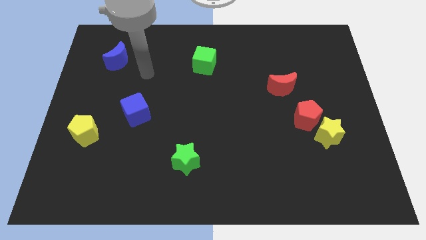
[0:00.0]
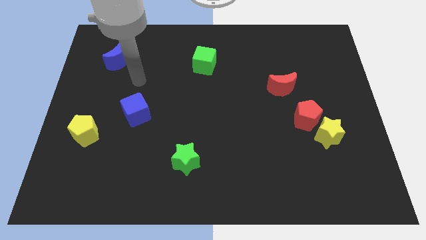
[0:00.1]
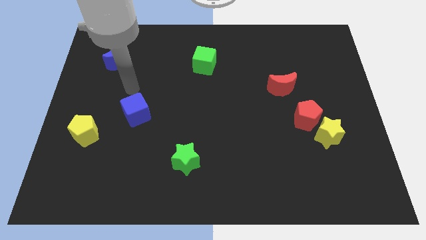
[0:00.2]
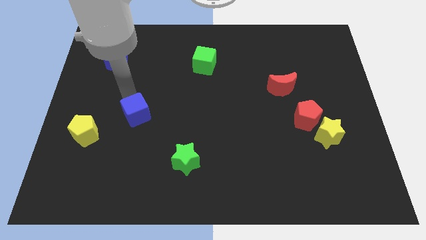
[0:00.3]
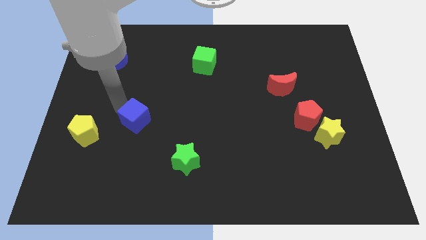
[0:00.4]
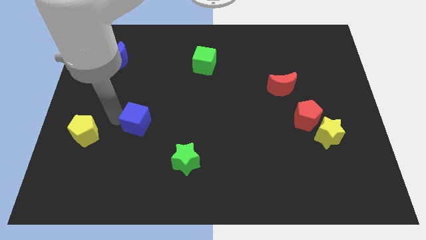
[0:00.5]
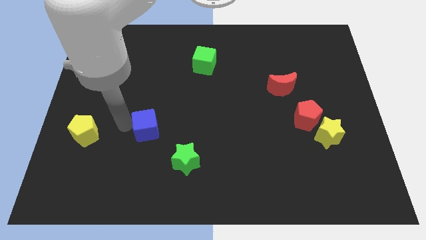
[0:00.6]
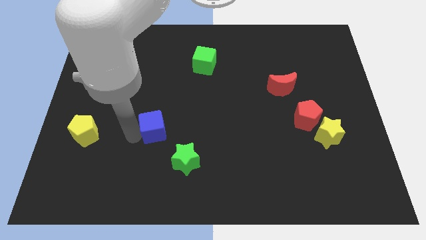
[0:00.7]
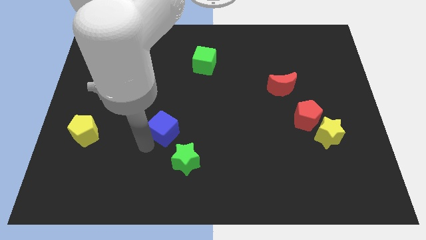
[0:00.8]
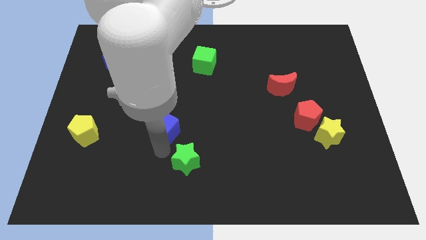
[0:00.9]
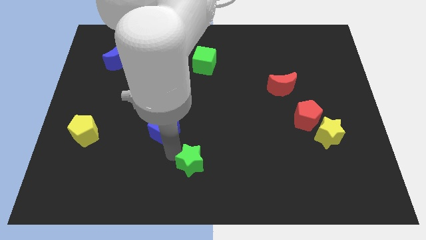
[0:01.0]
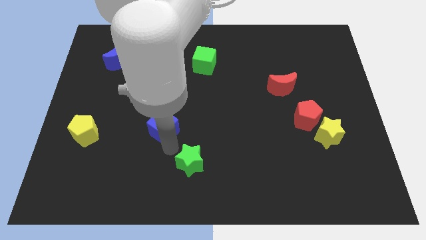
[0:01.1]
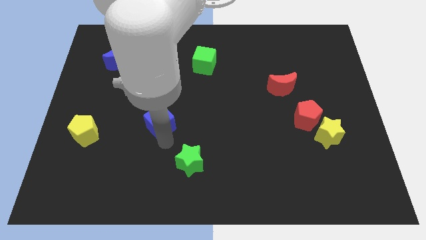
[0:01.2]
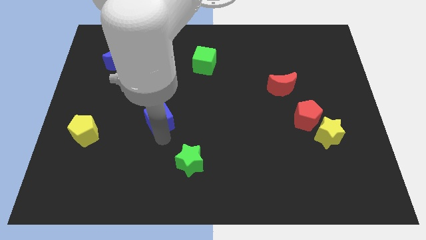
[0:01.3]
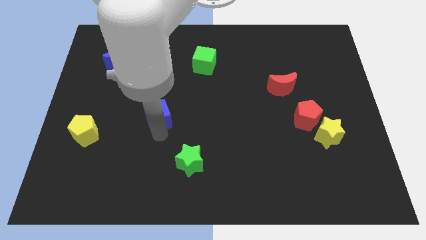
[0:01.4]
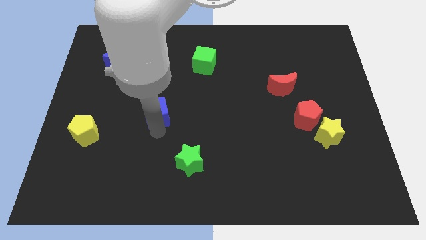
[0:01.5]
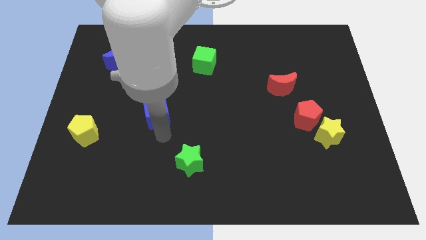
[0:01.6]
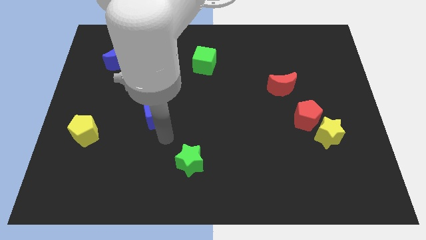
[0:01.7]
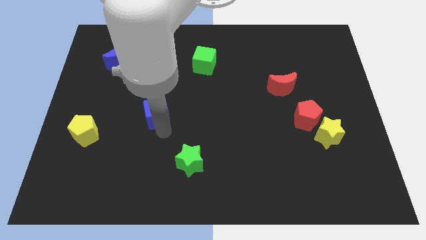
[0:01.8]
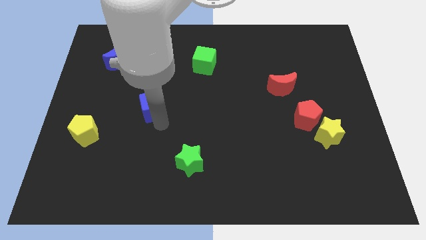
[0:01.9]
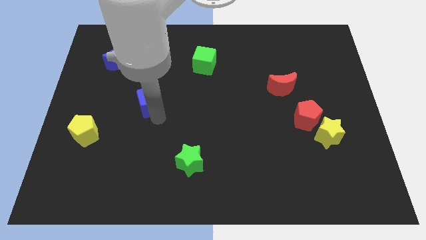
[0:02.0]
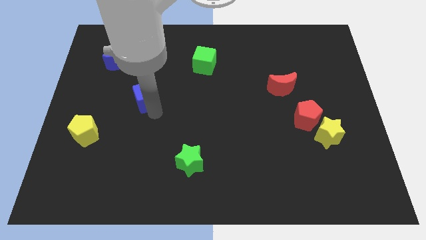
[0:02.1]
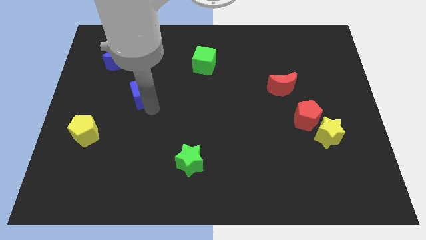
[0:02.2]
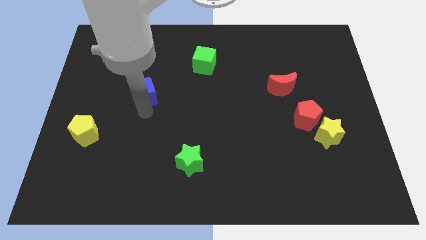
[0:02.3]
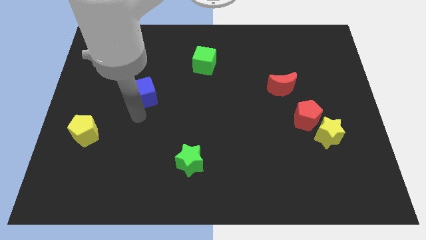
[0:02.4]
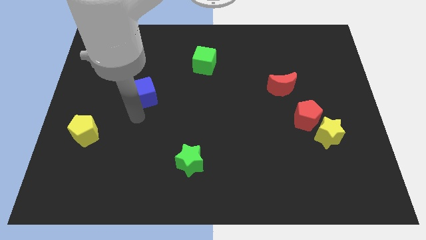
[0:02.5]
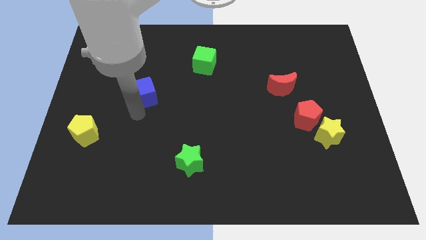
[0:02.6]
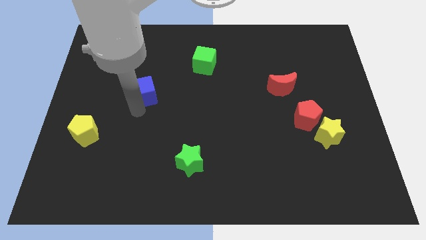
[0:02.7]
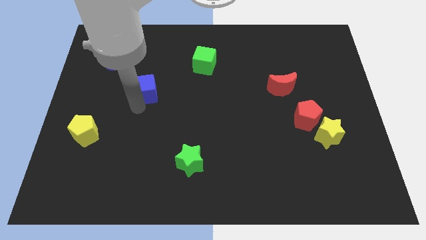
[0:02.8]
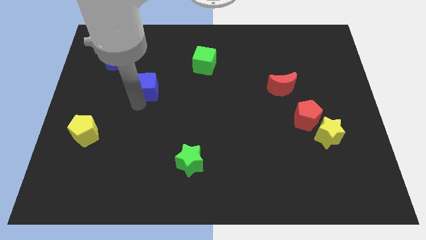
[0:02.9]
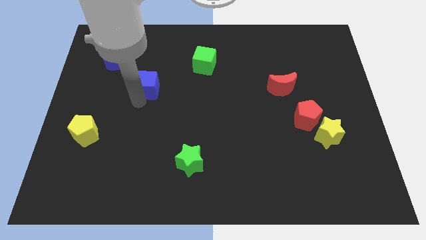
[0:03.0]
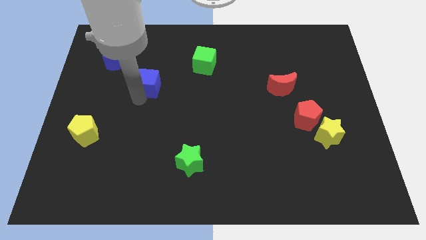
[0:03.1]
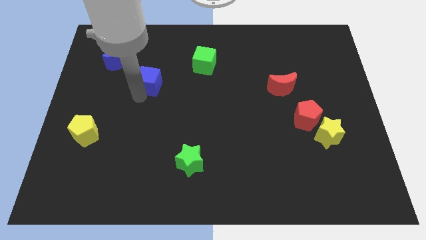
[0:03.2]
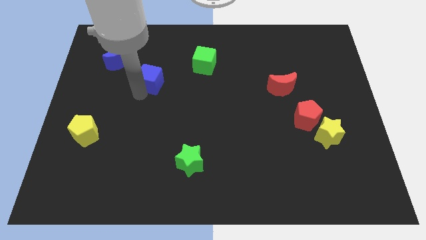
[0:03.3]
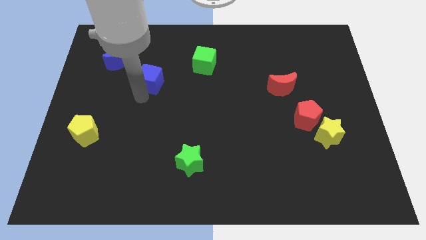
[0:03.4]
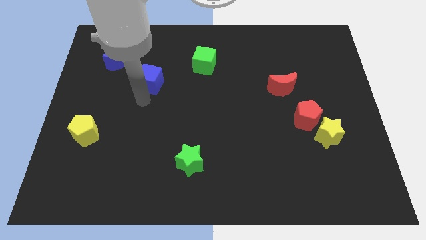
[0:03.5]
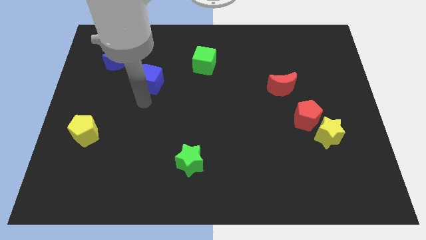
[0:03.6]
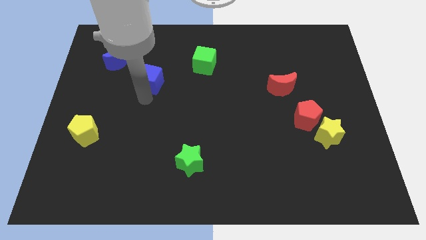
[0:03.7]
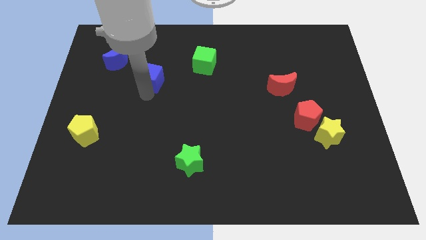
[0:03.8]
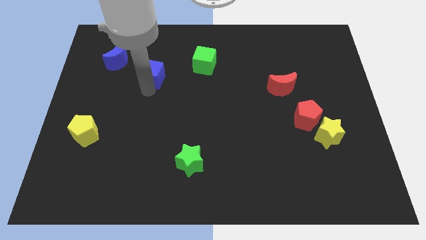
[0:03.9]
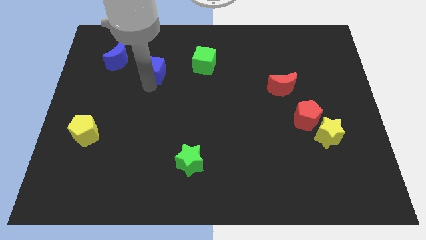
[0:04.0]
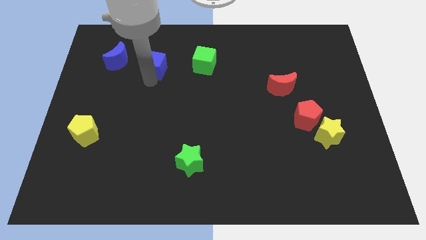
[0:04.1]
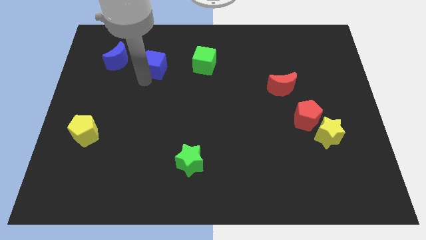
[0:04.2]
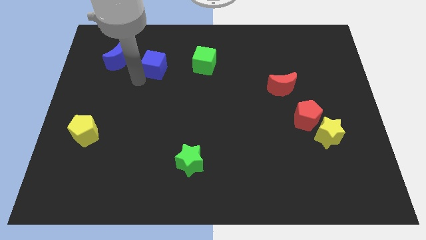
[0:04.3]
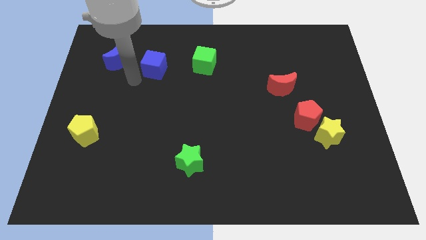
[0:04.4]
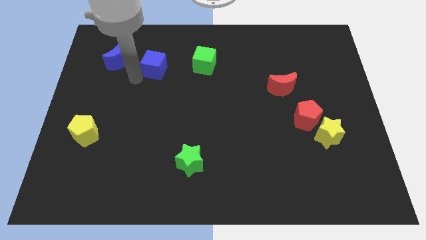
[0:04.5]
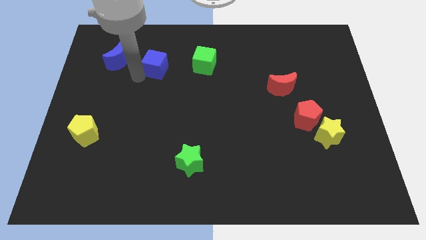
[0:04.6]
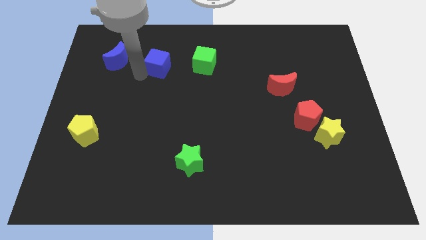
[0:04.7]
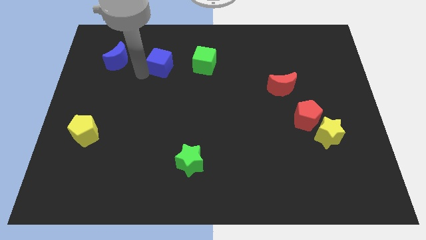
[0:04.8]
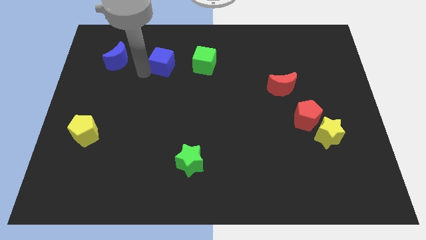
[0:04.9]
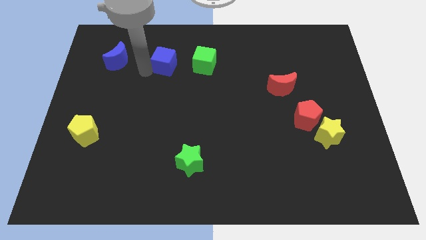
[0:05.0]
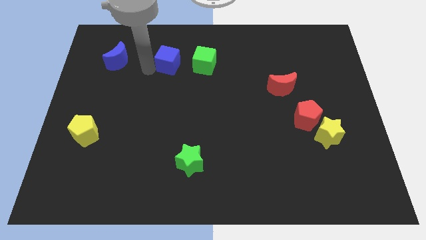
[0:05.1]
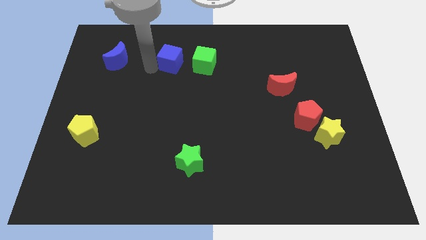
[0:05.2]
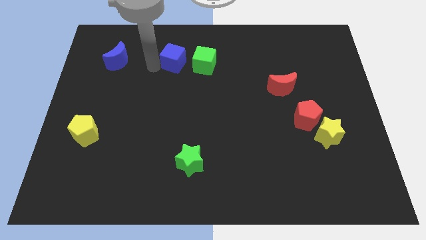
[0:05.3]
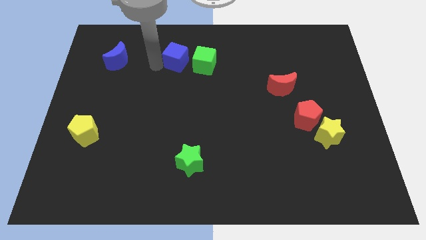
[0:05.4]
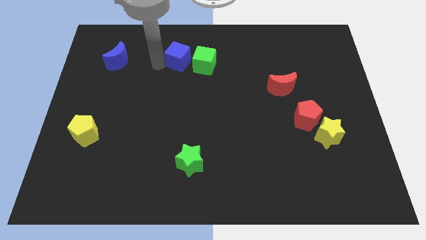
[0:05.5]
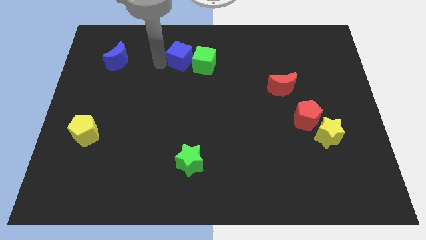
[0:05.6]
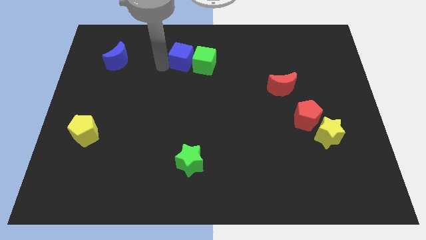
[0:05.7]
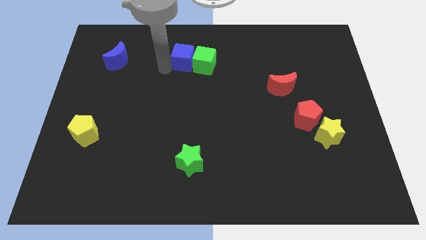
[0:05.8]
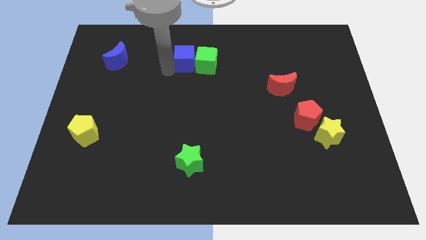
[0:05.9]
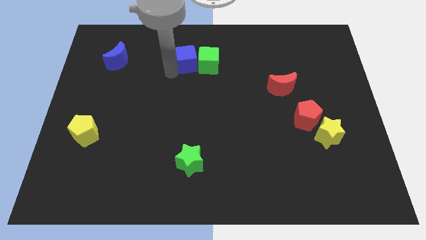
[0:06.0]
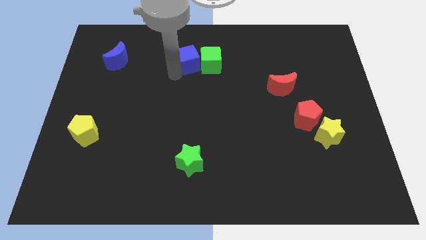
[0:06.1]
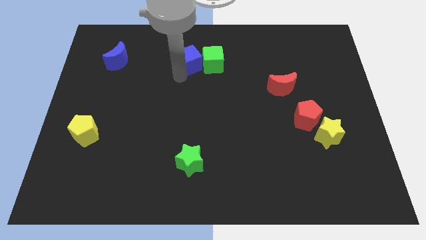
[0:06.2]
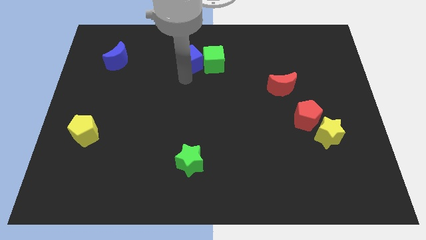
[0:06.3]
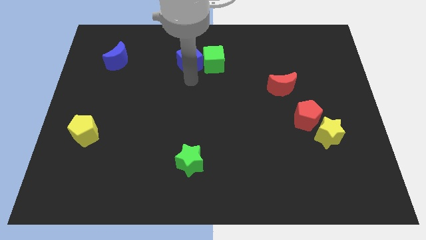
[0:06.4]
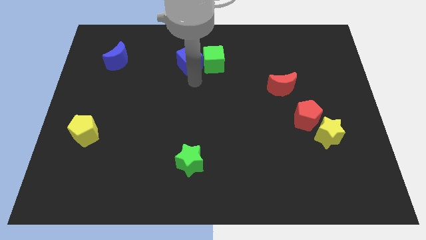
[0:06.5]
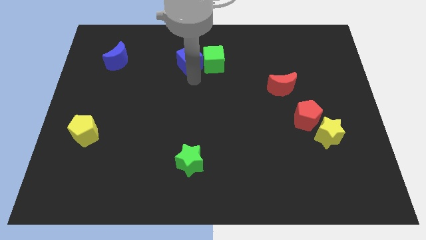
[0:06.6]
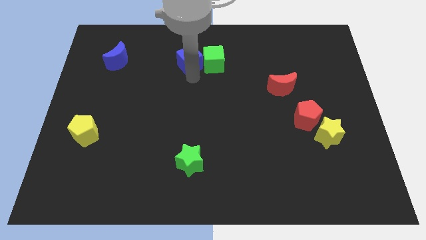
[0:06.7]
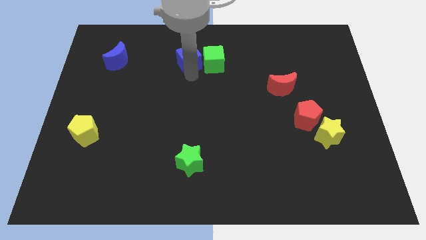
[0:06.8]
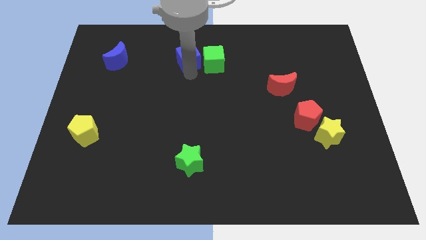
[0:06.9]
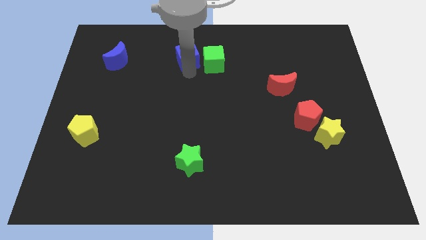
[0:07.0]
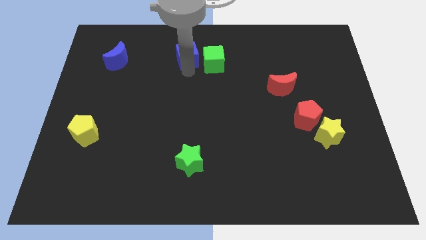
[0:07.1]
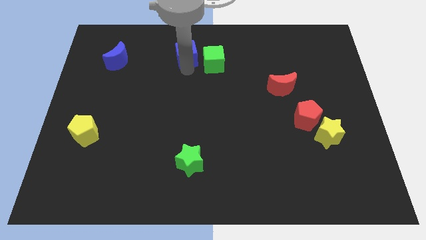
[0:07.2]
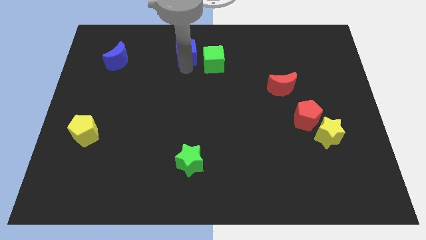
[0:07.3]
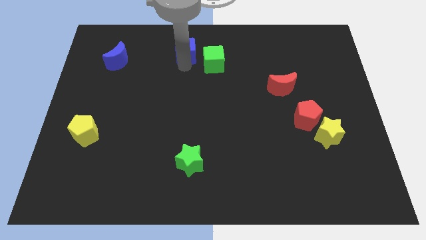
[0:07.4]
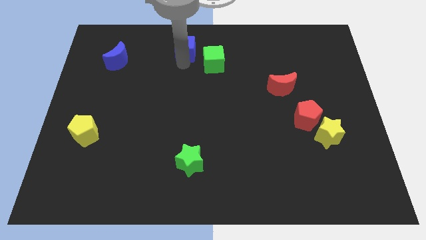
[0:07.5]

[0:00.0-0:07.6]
slide the blue cube to the top

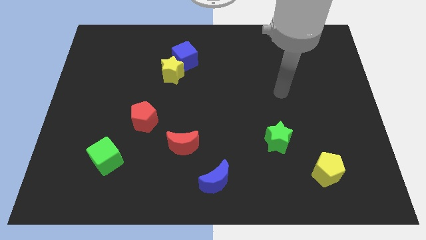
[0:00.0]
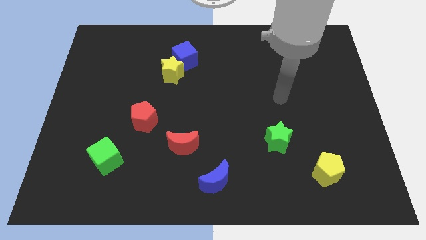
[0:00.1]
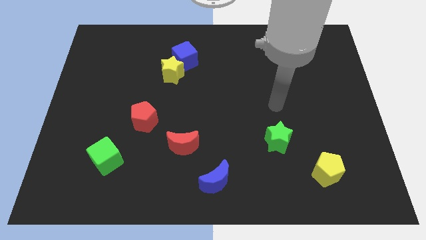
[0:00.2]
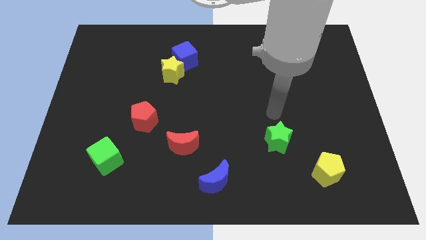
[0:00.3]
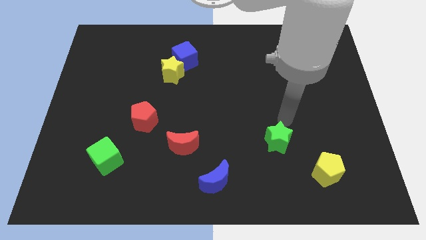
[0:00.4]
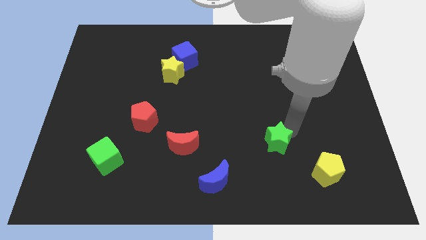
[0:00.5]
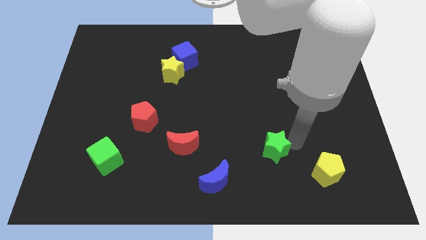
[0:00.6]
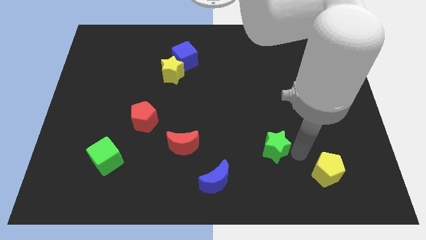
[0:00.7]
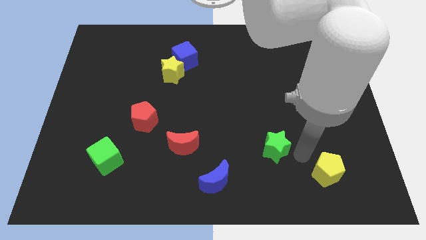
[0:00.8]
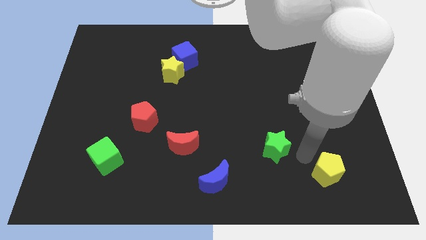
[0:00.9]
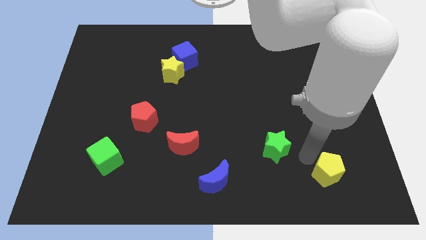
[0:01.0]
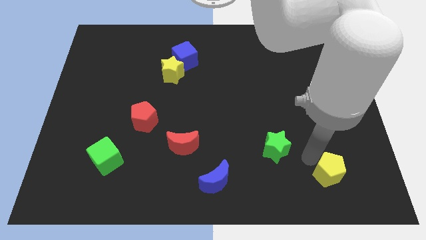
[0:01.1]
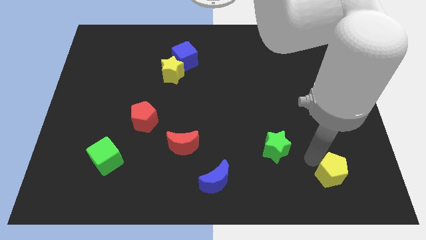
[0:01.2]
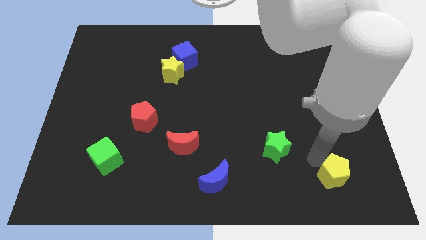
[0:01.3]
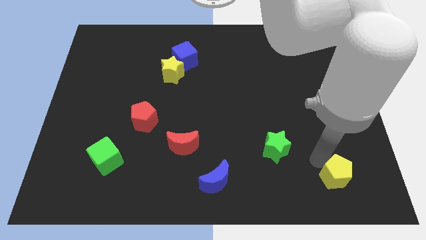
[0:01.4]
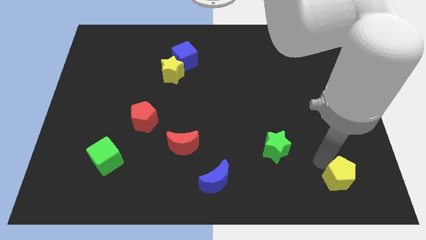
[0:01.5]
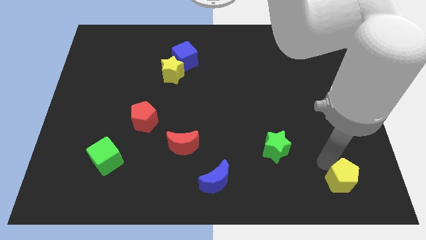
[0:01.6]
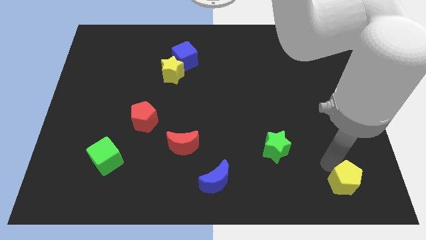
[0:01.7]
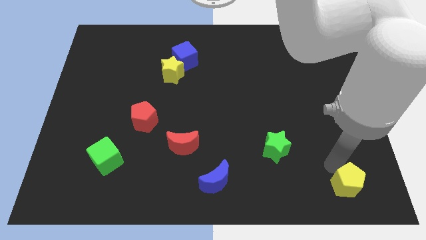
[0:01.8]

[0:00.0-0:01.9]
push the yellow pentagon to the bottom right corner
